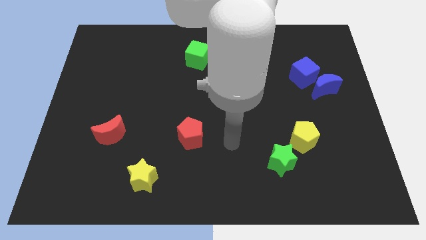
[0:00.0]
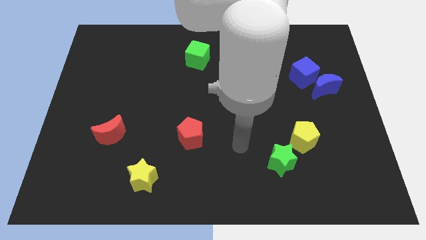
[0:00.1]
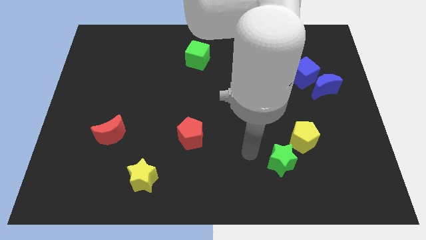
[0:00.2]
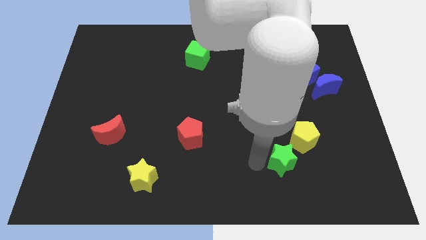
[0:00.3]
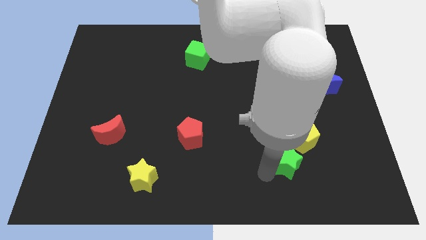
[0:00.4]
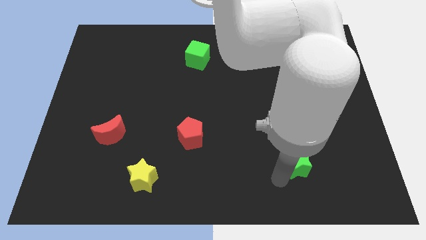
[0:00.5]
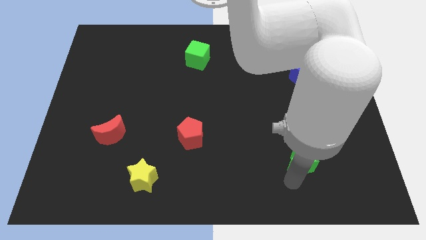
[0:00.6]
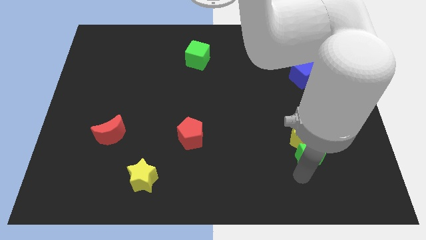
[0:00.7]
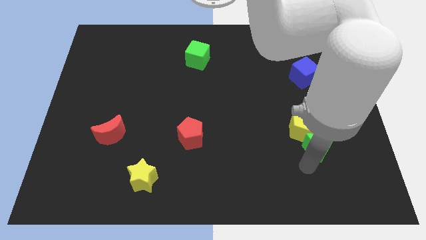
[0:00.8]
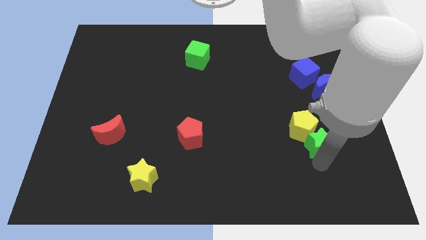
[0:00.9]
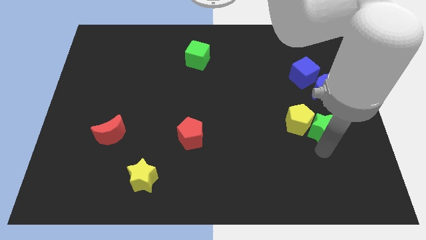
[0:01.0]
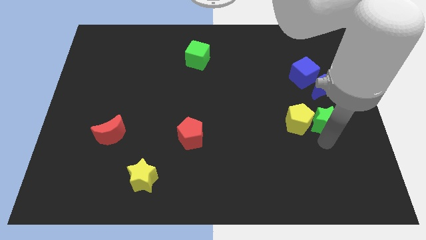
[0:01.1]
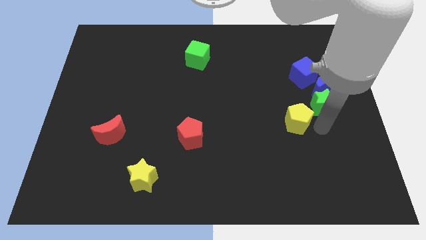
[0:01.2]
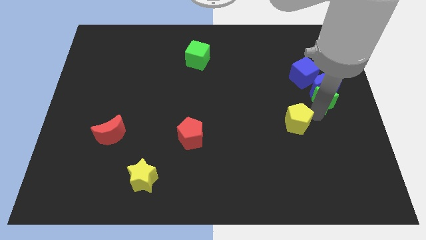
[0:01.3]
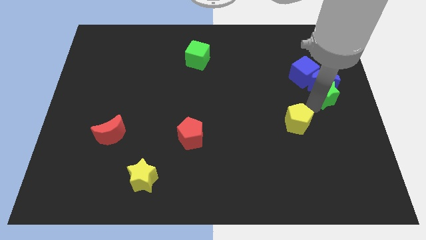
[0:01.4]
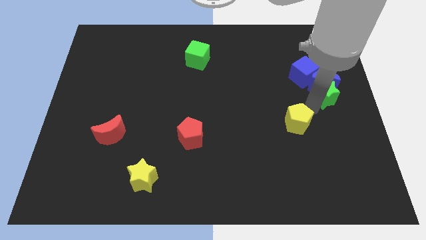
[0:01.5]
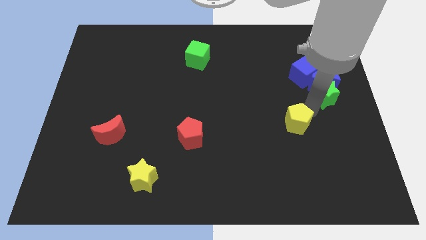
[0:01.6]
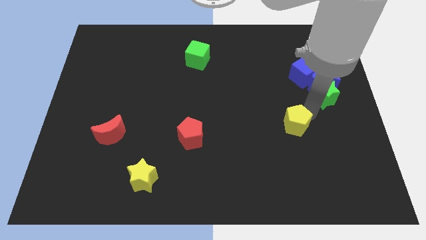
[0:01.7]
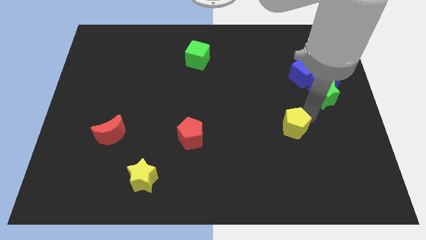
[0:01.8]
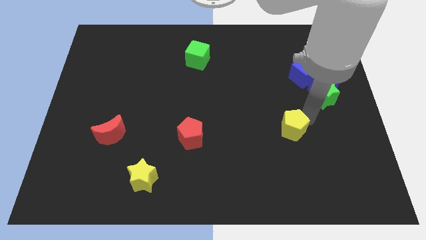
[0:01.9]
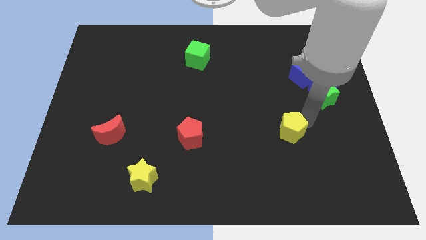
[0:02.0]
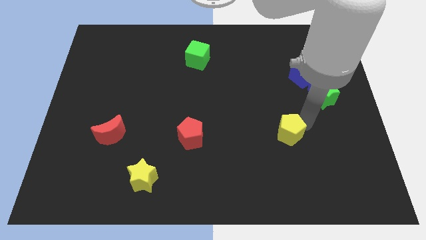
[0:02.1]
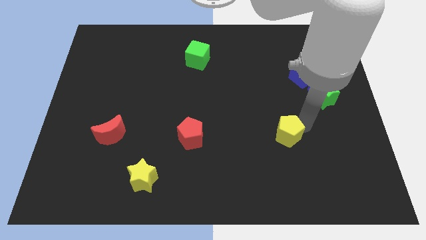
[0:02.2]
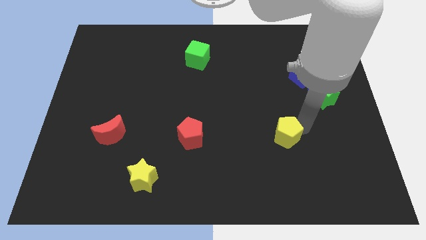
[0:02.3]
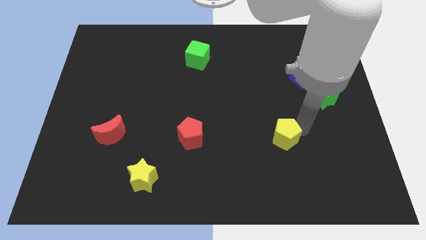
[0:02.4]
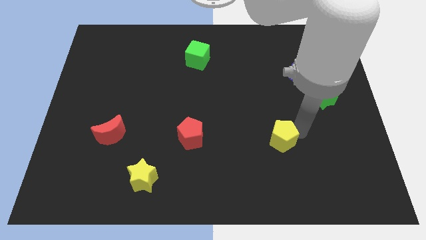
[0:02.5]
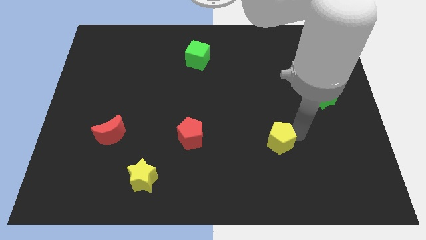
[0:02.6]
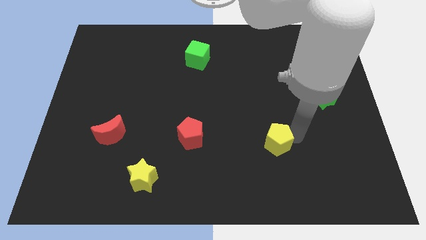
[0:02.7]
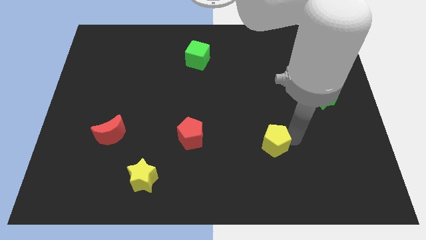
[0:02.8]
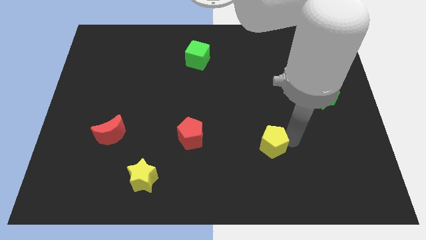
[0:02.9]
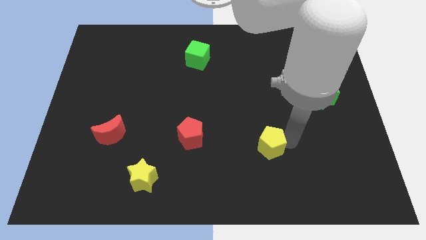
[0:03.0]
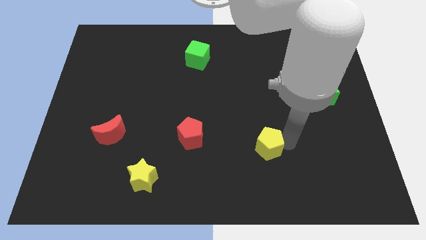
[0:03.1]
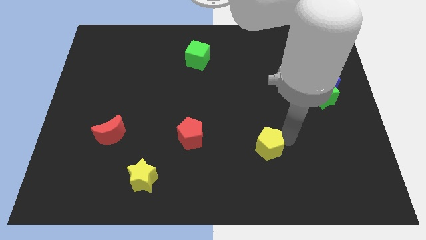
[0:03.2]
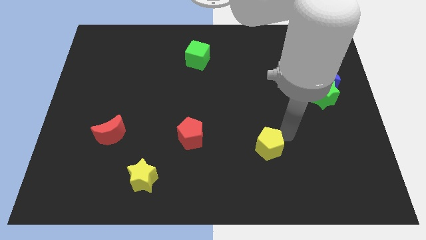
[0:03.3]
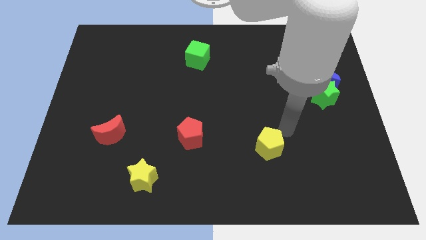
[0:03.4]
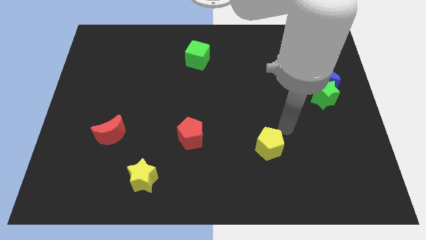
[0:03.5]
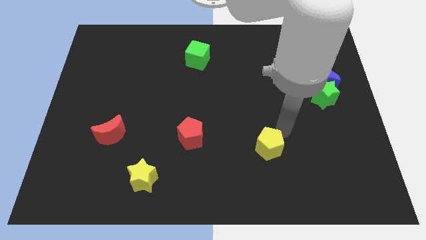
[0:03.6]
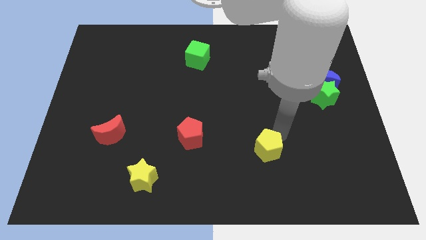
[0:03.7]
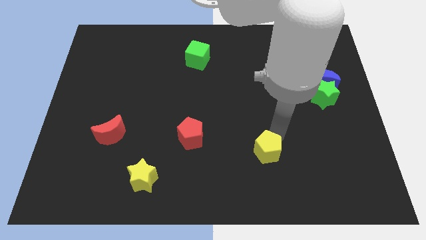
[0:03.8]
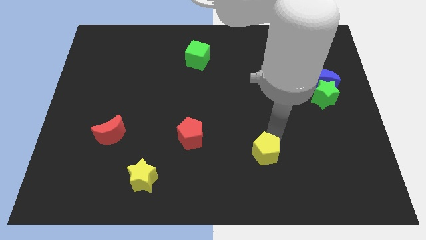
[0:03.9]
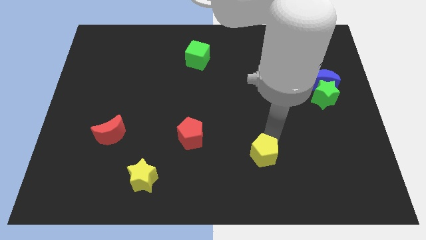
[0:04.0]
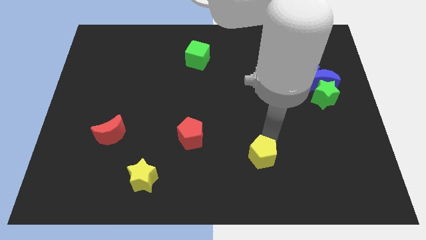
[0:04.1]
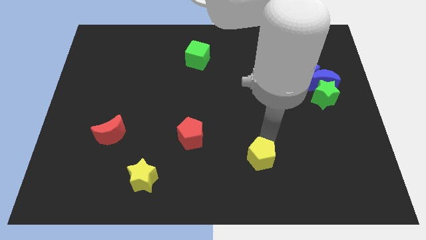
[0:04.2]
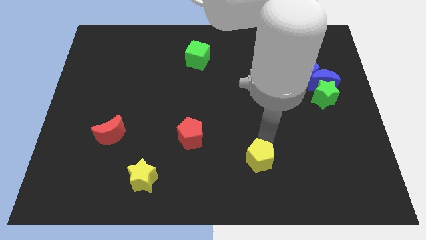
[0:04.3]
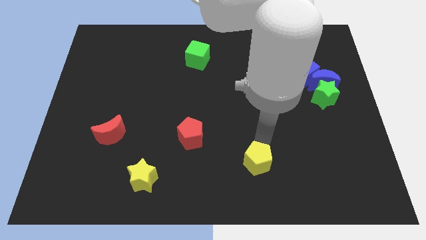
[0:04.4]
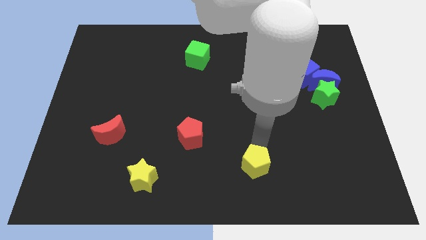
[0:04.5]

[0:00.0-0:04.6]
slide the yellow pentagon to the bottom

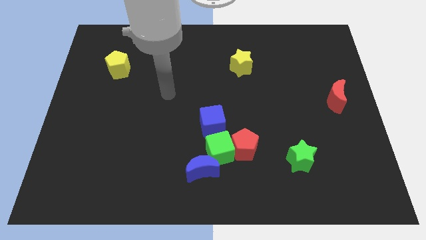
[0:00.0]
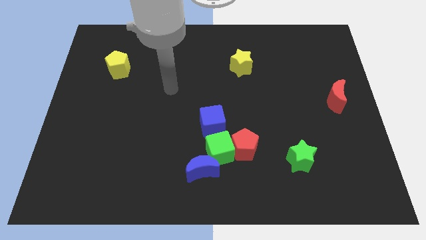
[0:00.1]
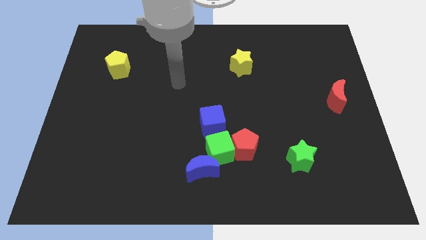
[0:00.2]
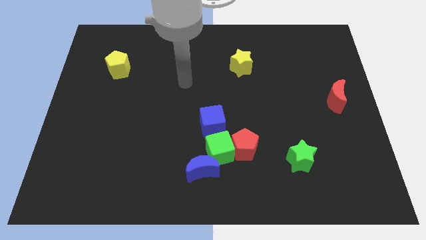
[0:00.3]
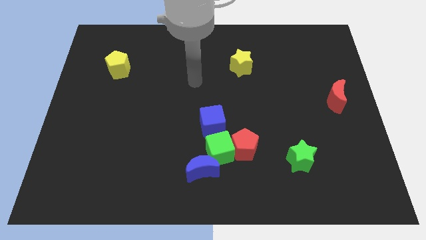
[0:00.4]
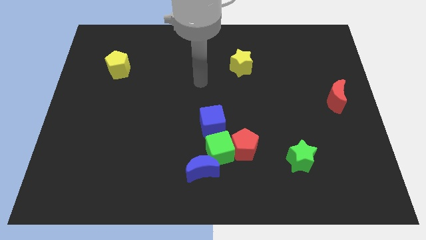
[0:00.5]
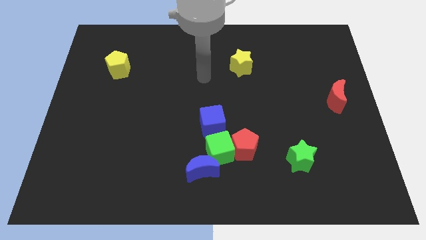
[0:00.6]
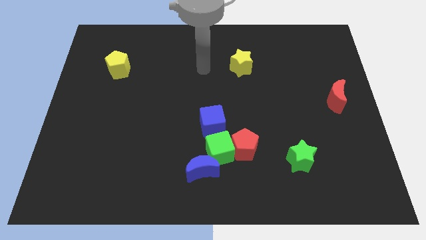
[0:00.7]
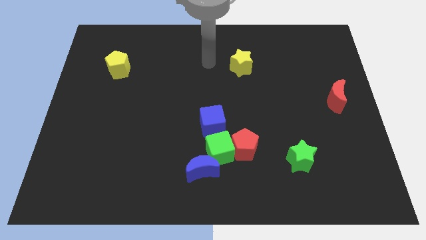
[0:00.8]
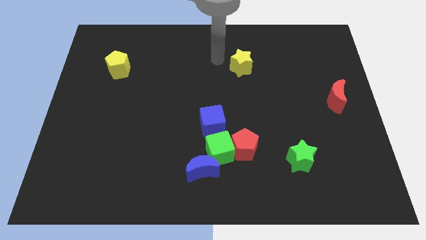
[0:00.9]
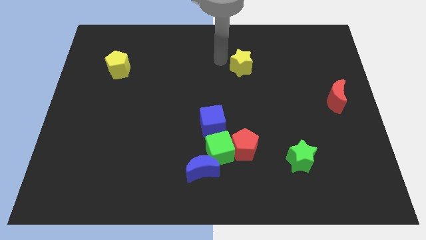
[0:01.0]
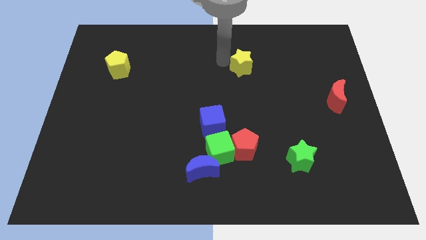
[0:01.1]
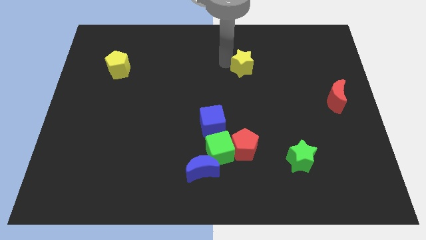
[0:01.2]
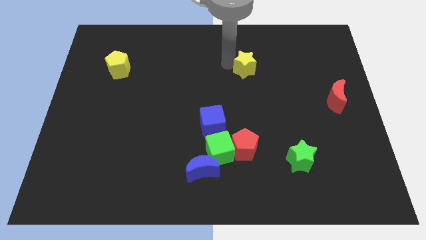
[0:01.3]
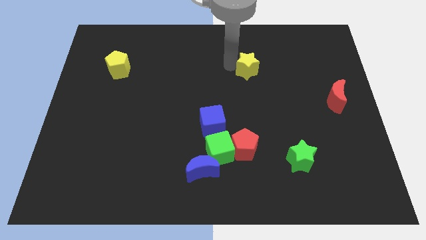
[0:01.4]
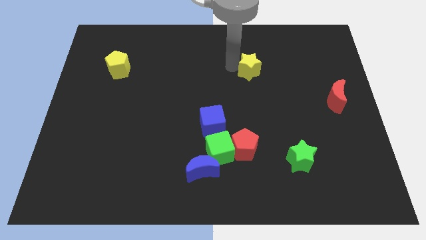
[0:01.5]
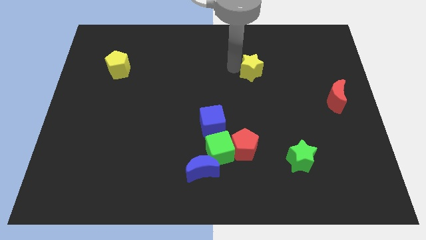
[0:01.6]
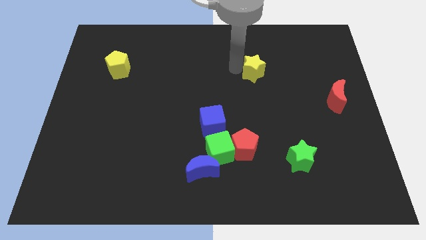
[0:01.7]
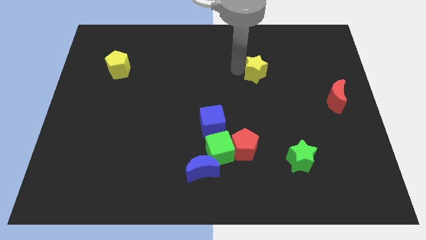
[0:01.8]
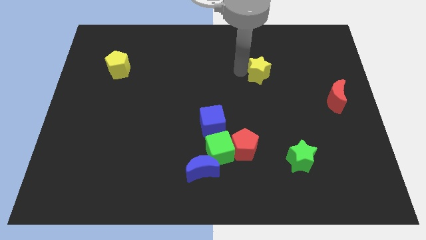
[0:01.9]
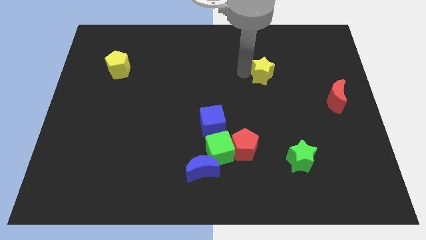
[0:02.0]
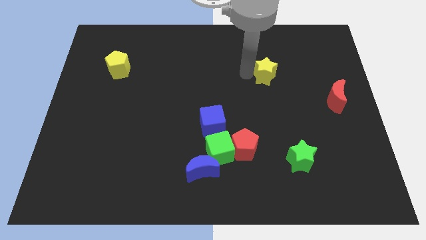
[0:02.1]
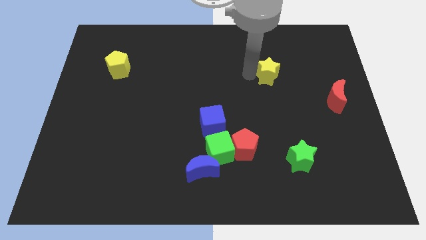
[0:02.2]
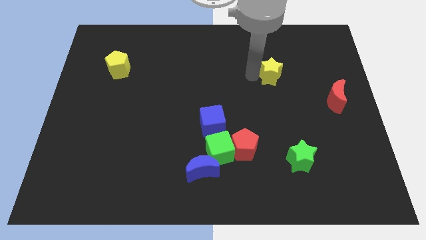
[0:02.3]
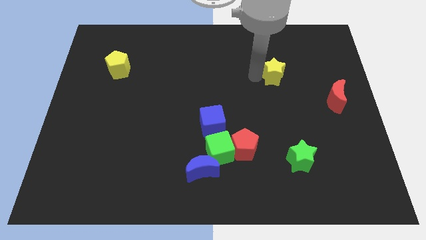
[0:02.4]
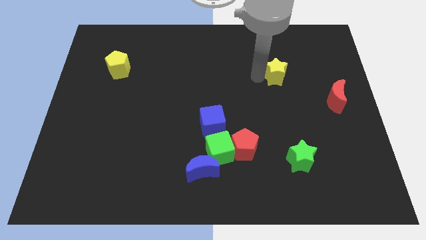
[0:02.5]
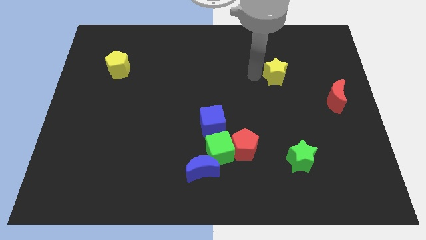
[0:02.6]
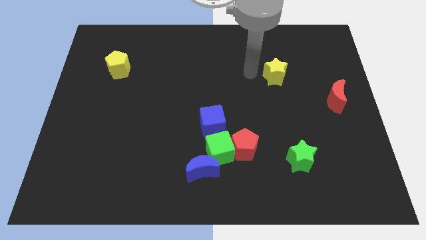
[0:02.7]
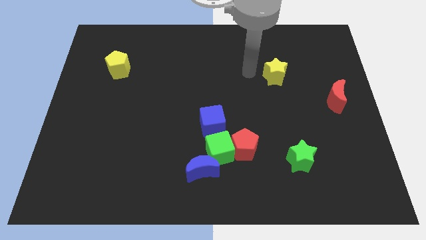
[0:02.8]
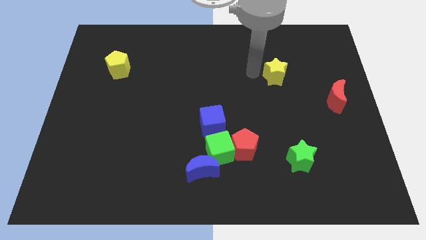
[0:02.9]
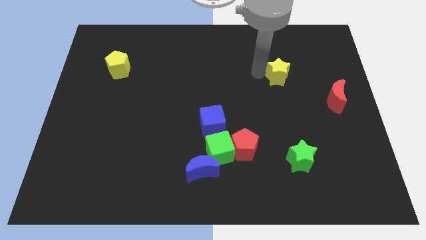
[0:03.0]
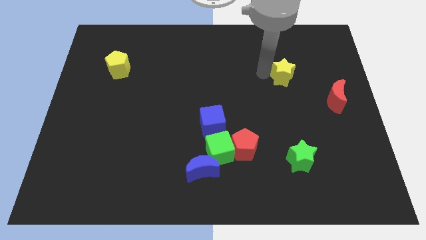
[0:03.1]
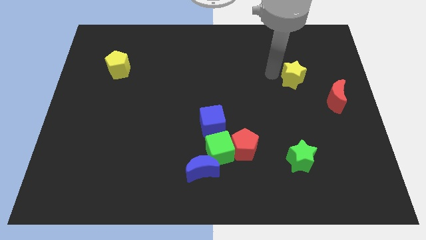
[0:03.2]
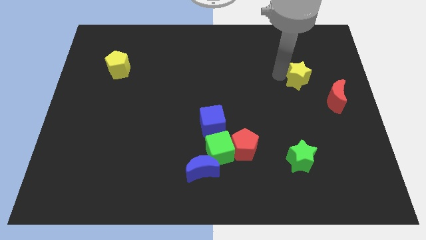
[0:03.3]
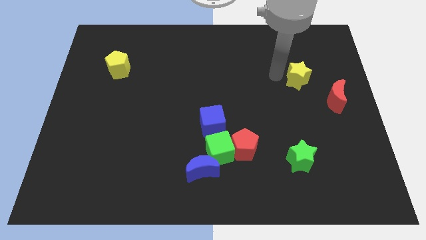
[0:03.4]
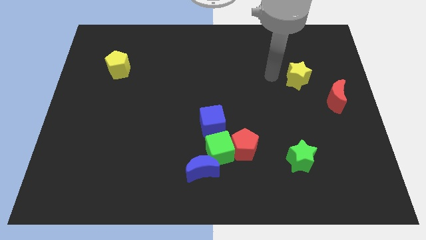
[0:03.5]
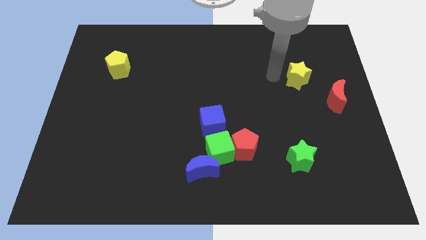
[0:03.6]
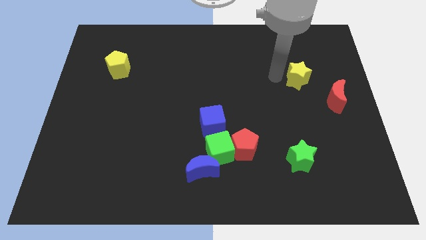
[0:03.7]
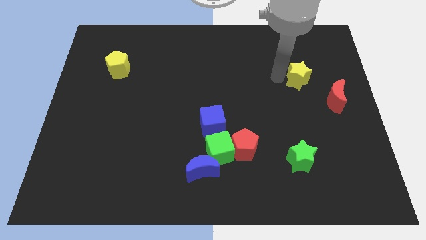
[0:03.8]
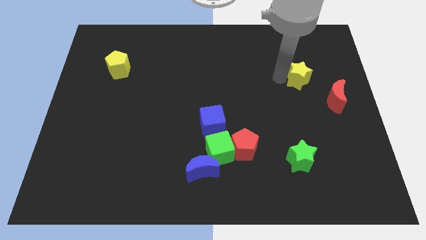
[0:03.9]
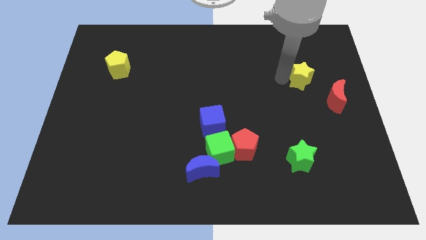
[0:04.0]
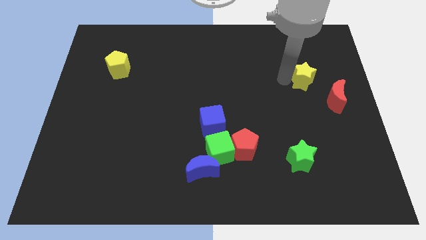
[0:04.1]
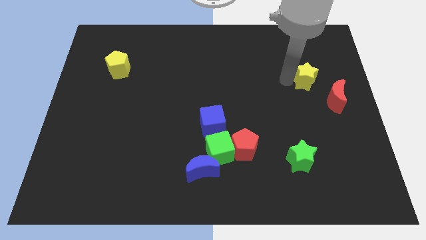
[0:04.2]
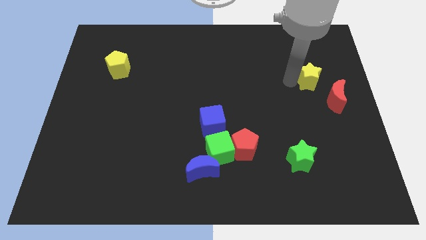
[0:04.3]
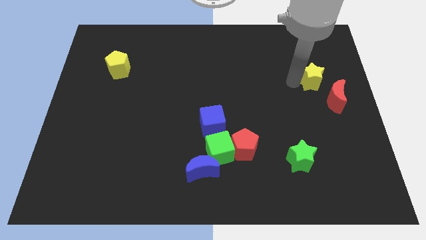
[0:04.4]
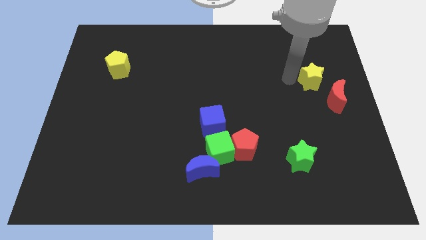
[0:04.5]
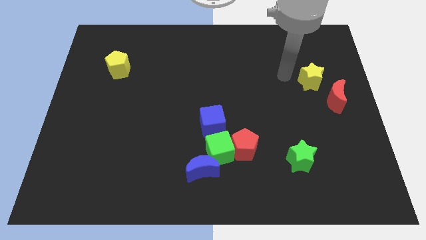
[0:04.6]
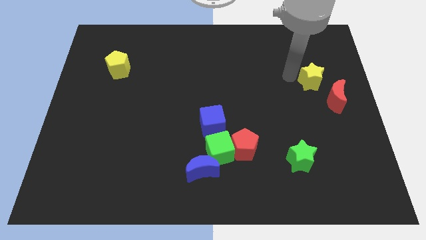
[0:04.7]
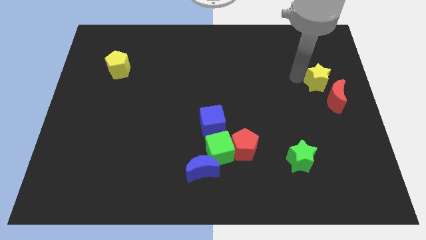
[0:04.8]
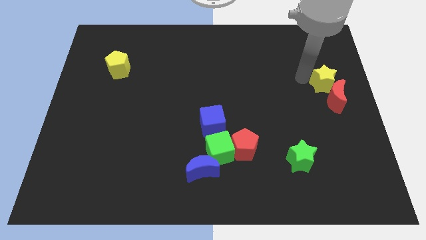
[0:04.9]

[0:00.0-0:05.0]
slide the yellow star to the right side
